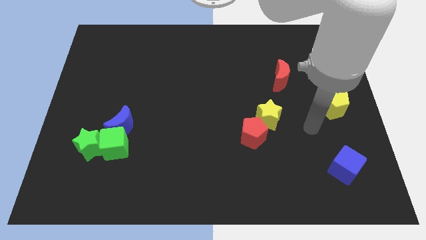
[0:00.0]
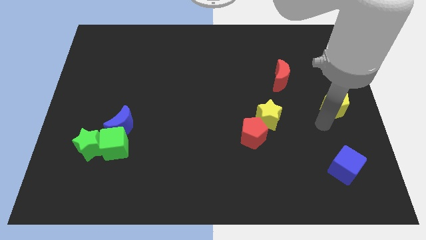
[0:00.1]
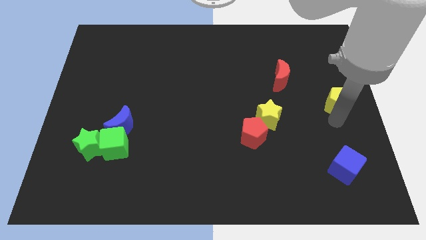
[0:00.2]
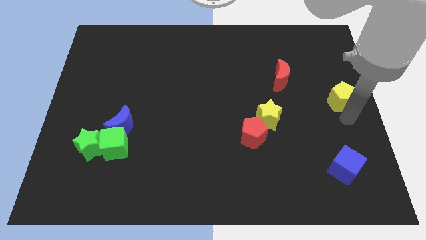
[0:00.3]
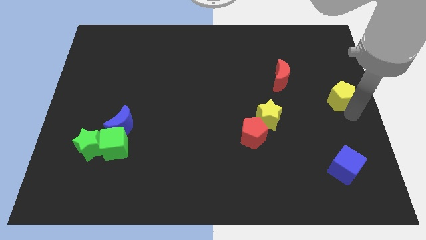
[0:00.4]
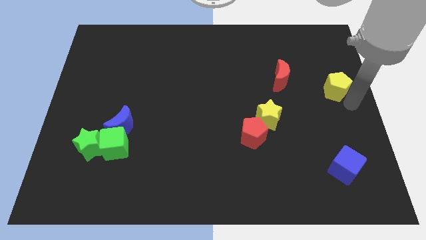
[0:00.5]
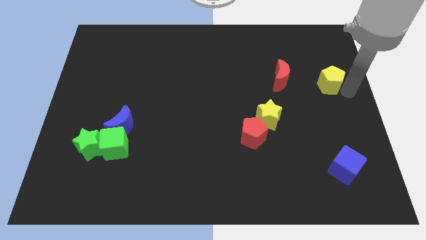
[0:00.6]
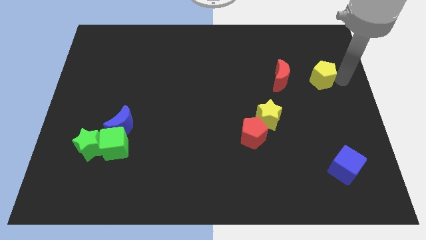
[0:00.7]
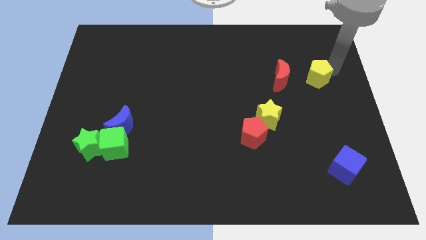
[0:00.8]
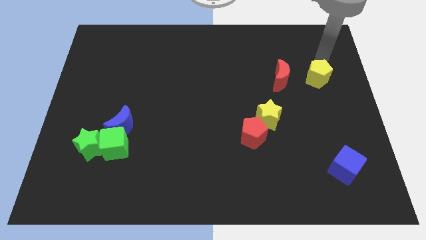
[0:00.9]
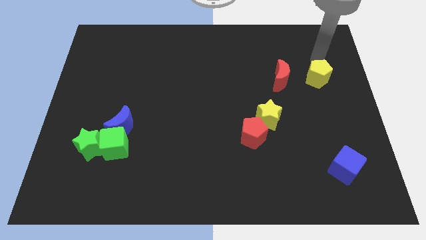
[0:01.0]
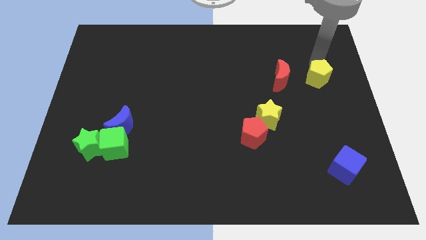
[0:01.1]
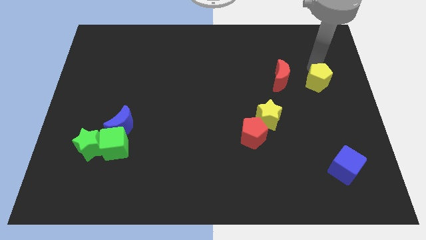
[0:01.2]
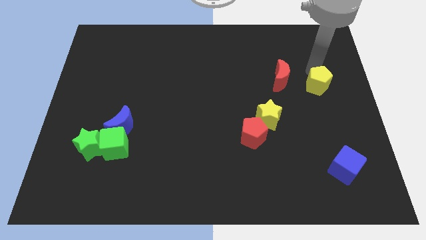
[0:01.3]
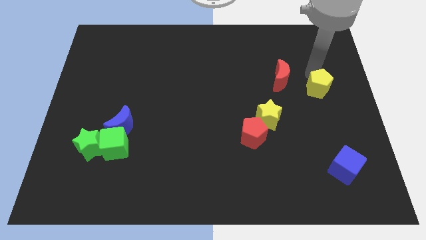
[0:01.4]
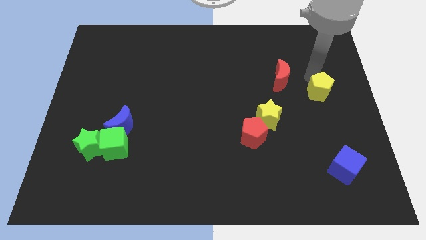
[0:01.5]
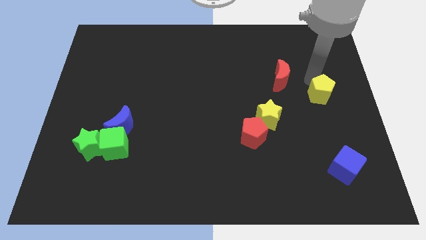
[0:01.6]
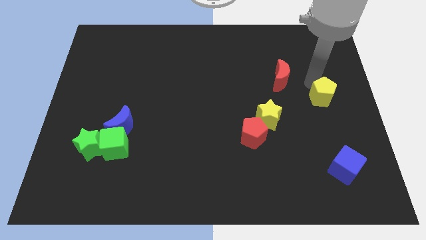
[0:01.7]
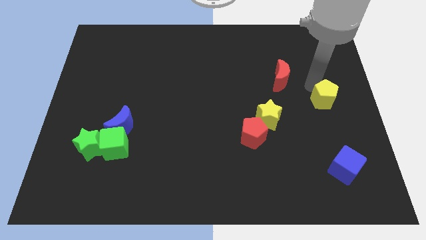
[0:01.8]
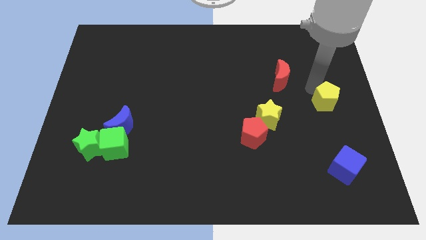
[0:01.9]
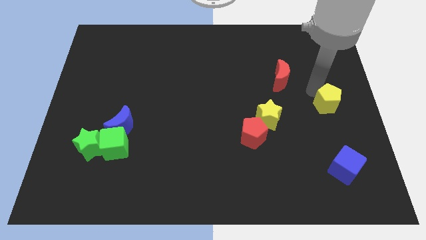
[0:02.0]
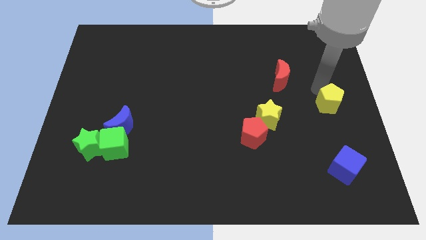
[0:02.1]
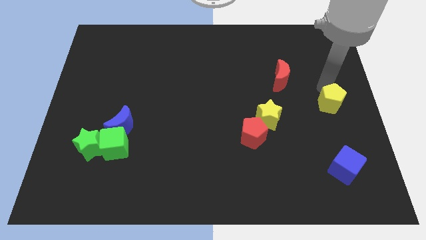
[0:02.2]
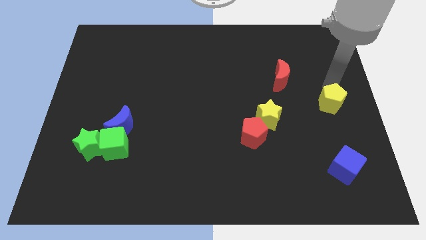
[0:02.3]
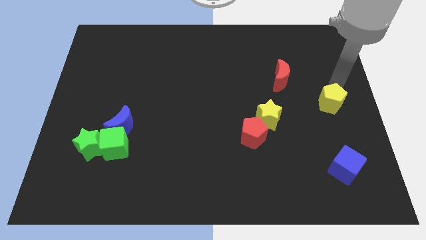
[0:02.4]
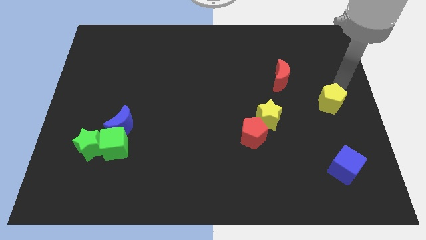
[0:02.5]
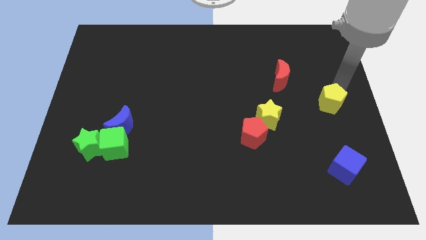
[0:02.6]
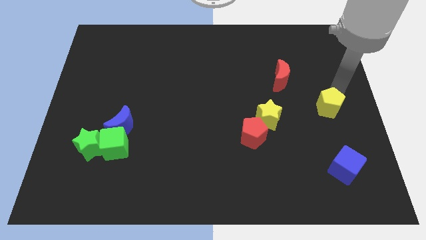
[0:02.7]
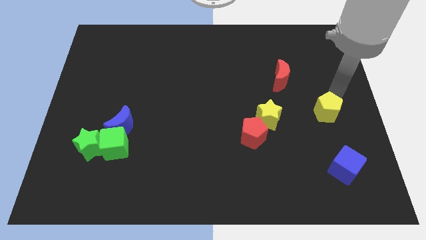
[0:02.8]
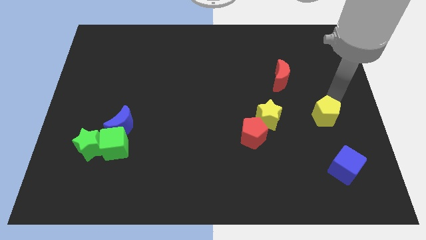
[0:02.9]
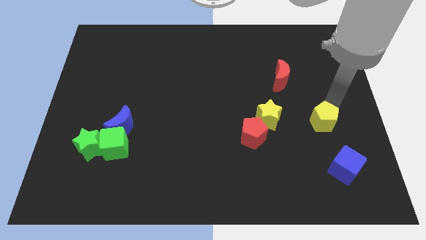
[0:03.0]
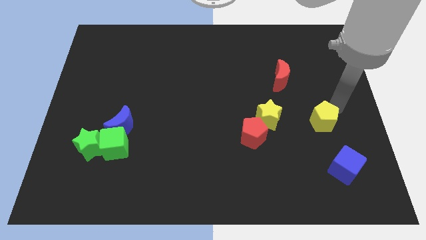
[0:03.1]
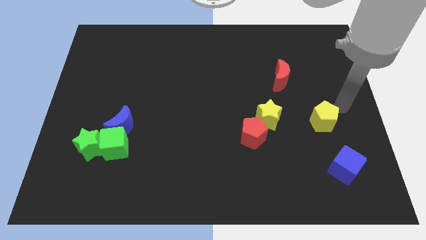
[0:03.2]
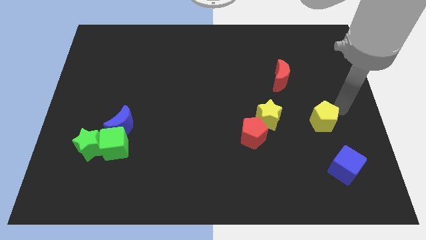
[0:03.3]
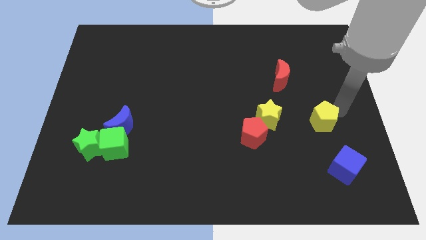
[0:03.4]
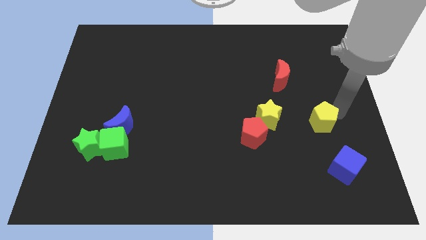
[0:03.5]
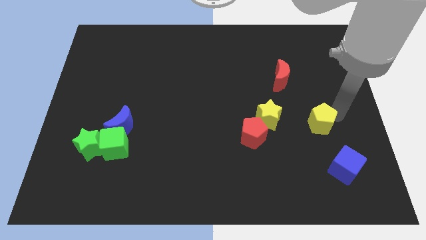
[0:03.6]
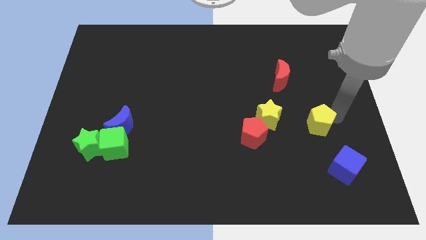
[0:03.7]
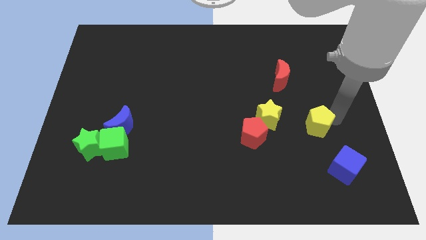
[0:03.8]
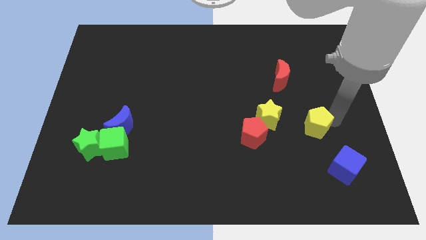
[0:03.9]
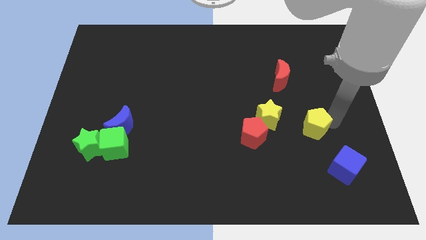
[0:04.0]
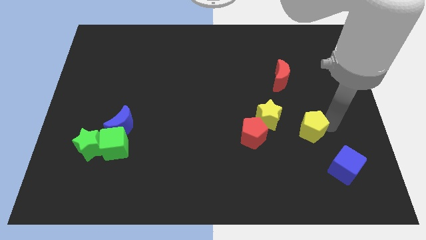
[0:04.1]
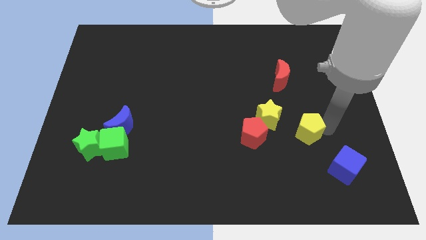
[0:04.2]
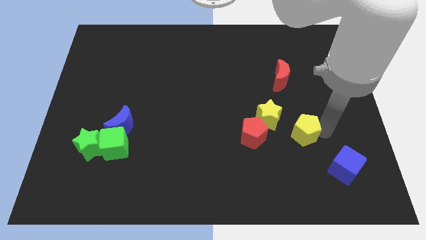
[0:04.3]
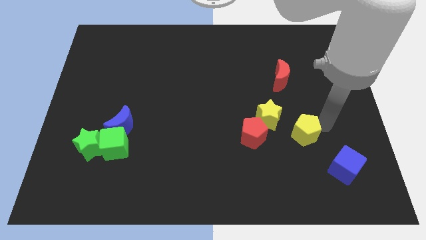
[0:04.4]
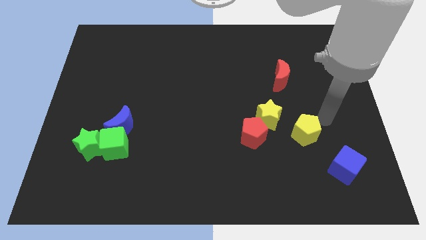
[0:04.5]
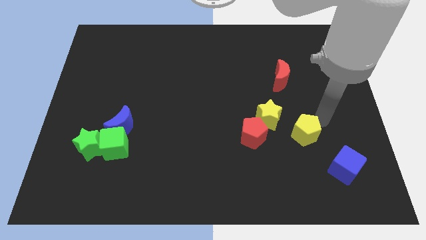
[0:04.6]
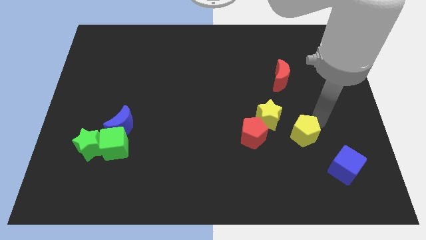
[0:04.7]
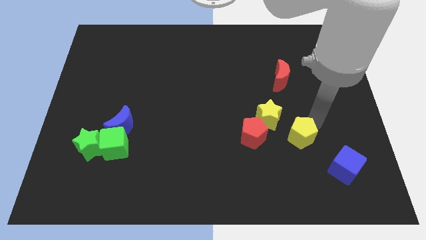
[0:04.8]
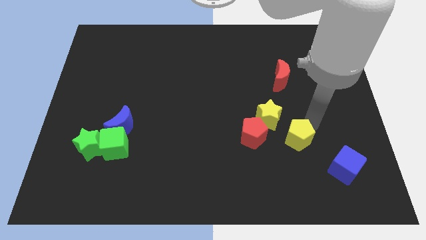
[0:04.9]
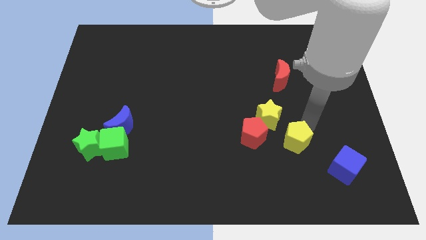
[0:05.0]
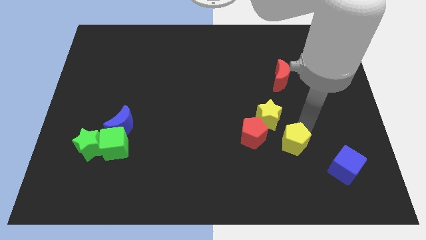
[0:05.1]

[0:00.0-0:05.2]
slide the yellow pentagon below the yellow star

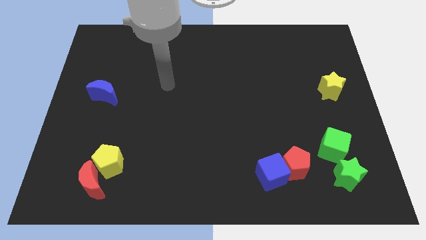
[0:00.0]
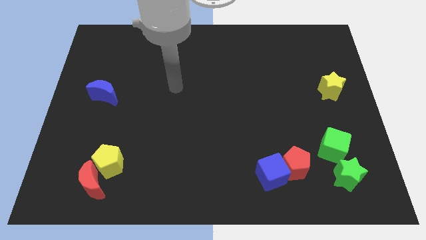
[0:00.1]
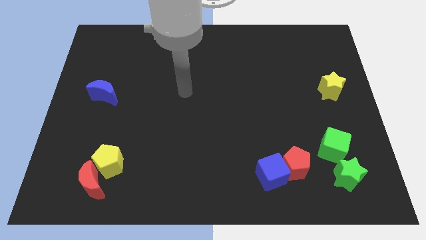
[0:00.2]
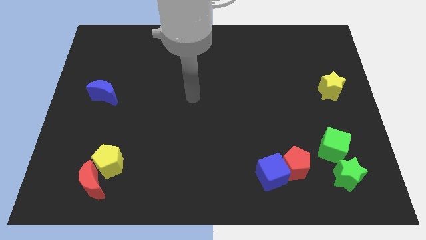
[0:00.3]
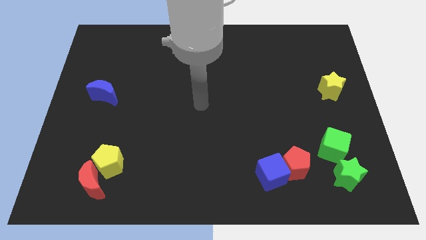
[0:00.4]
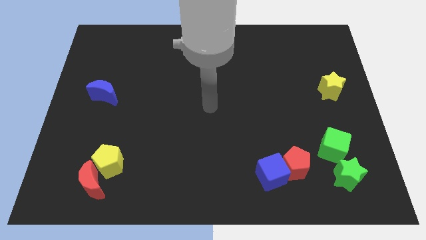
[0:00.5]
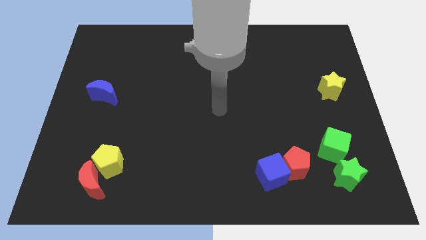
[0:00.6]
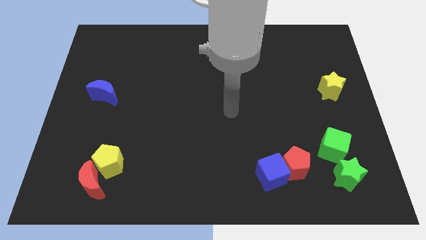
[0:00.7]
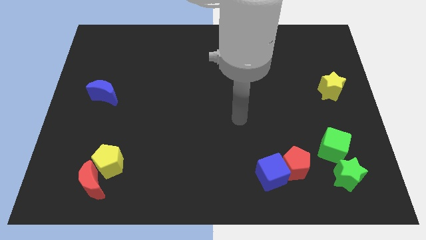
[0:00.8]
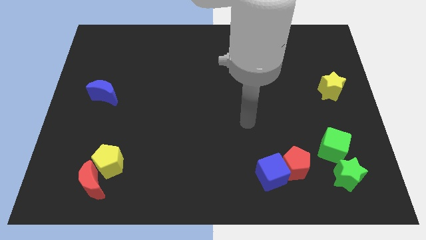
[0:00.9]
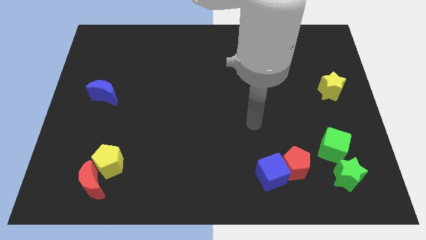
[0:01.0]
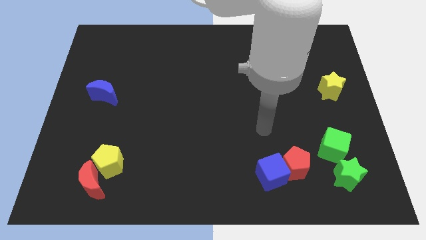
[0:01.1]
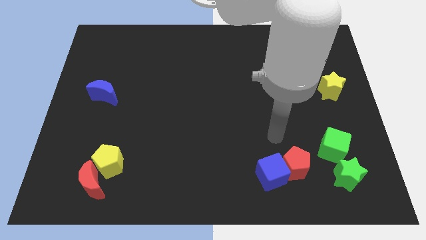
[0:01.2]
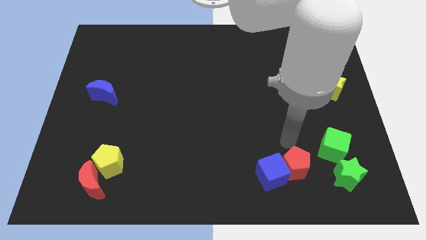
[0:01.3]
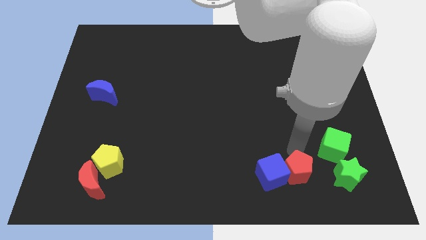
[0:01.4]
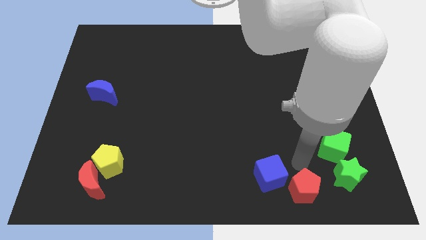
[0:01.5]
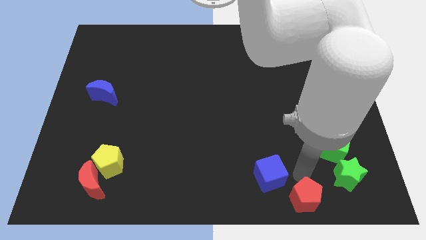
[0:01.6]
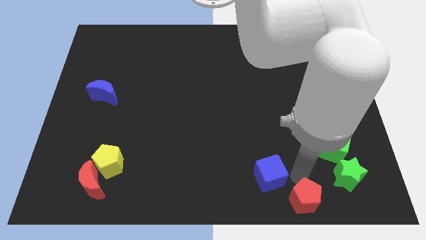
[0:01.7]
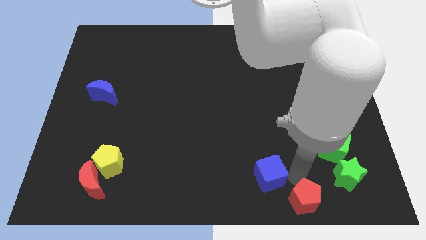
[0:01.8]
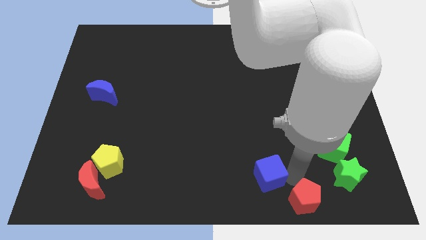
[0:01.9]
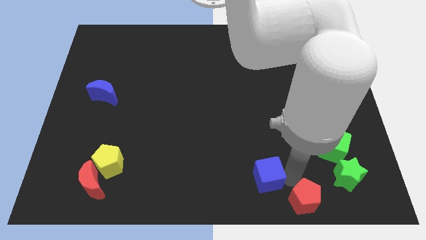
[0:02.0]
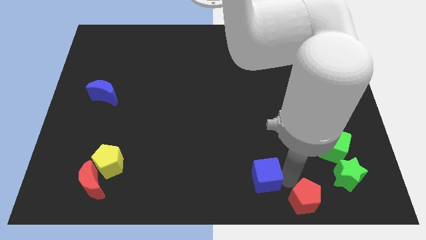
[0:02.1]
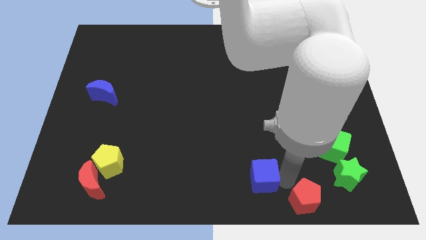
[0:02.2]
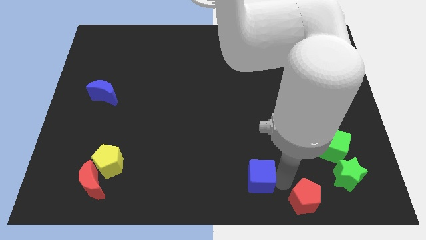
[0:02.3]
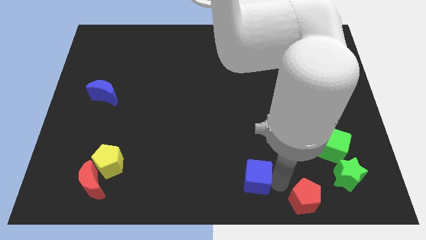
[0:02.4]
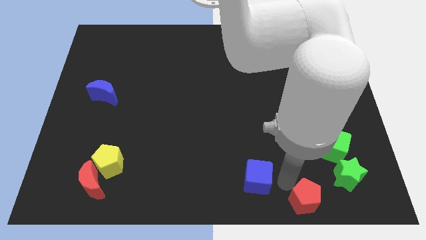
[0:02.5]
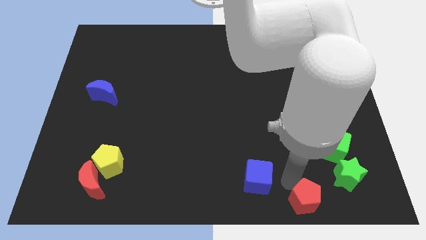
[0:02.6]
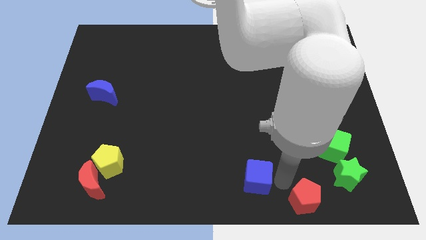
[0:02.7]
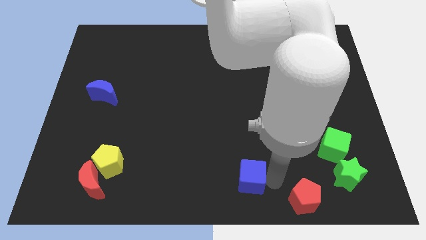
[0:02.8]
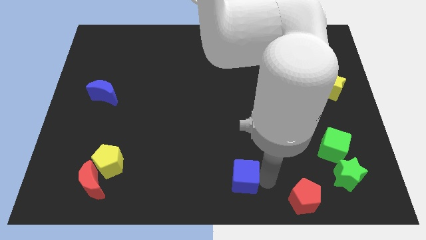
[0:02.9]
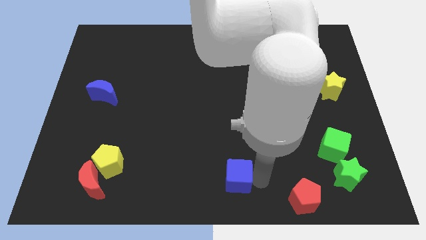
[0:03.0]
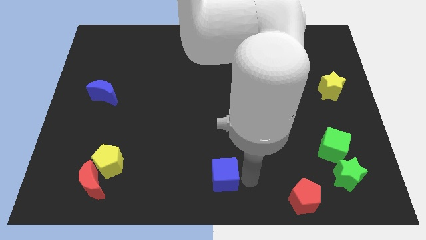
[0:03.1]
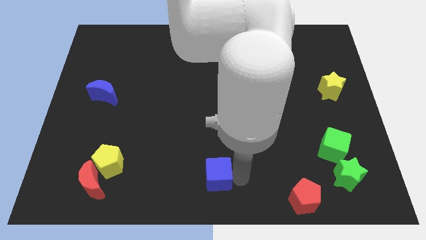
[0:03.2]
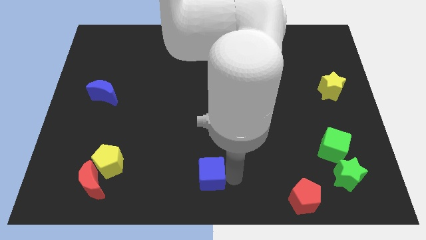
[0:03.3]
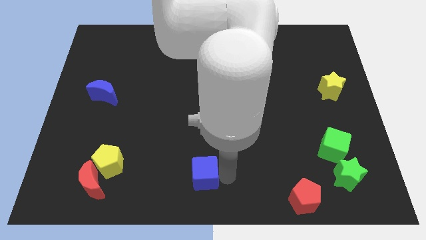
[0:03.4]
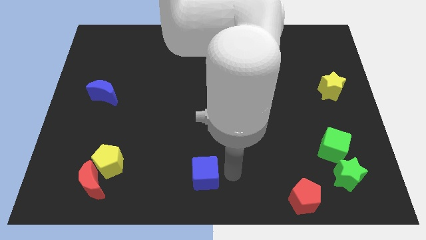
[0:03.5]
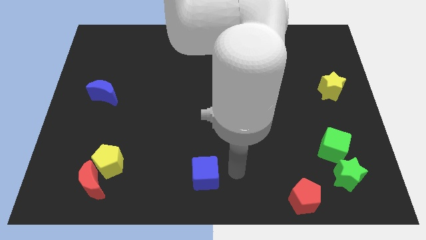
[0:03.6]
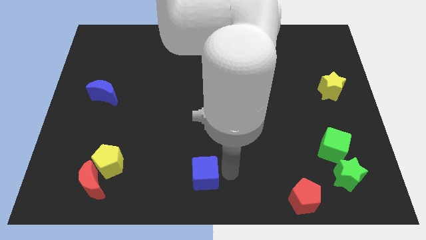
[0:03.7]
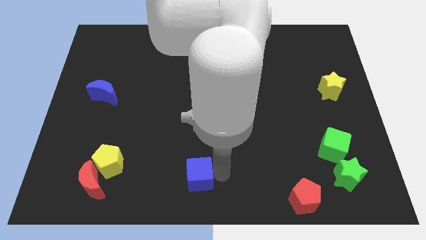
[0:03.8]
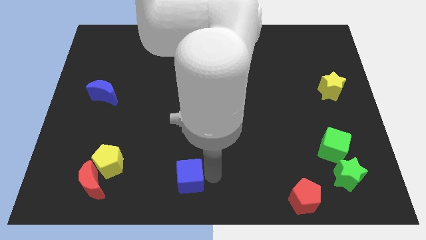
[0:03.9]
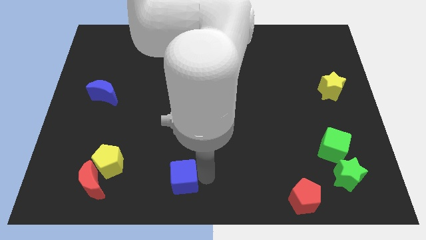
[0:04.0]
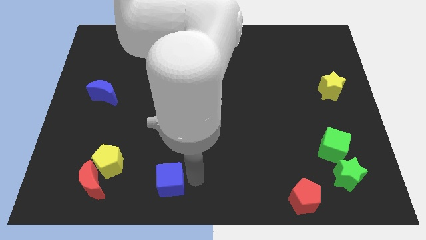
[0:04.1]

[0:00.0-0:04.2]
slide the blue cube right of the red moon
